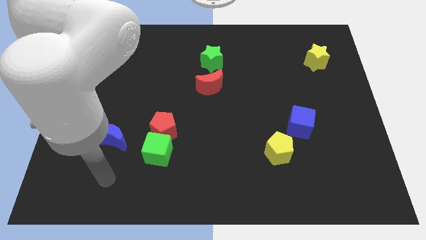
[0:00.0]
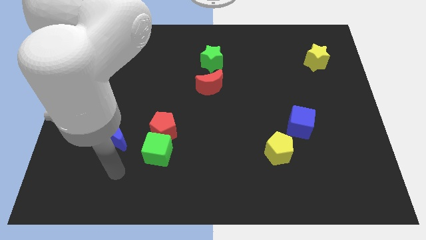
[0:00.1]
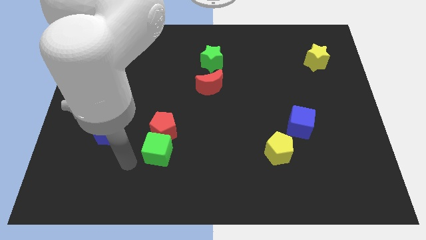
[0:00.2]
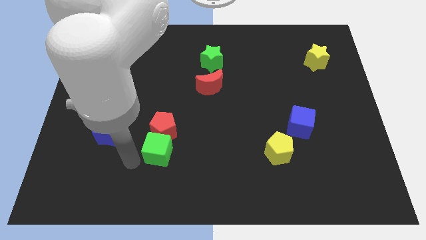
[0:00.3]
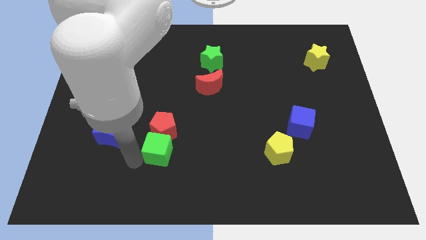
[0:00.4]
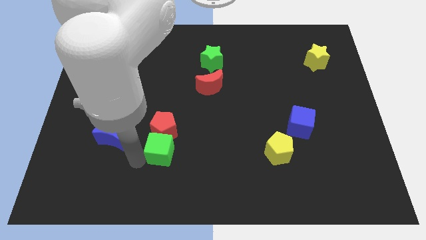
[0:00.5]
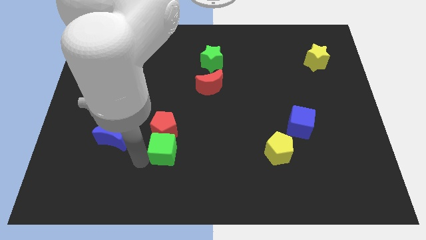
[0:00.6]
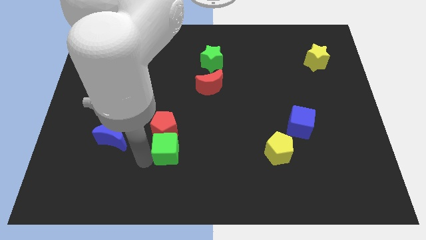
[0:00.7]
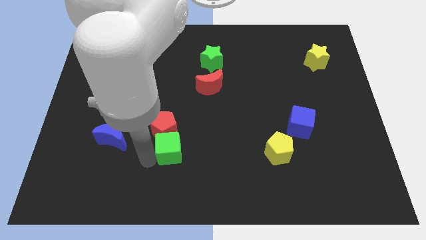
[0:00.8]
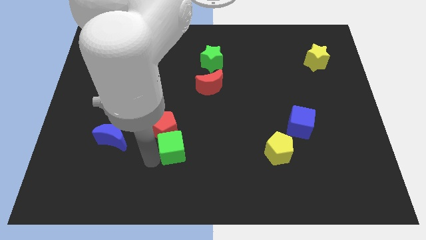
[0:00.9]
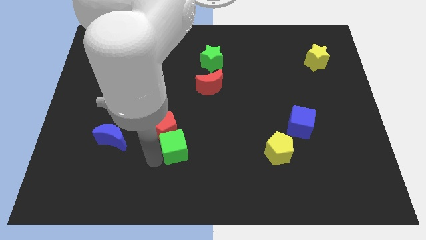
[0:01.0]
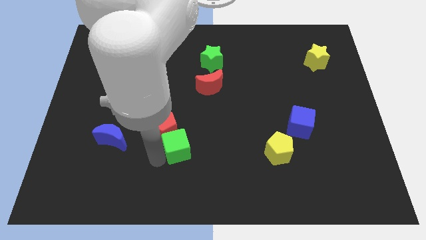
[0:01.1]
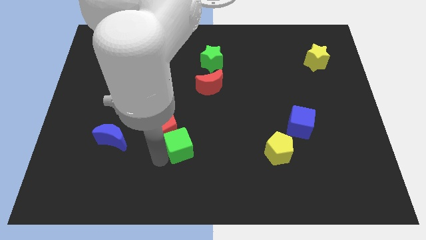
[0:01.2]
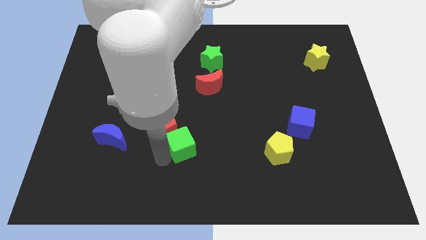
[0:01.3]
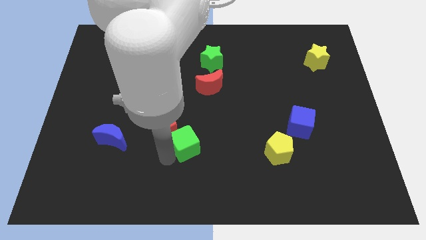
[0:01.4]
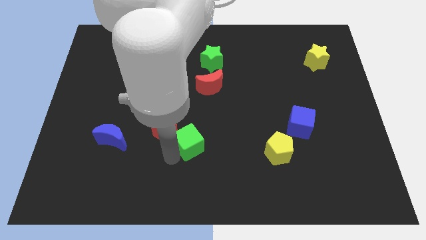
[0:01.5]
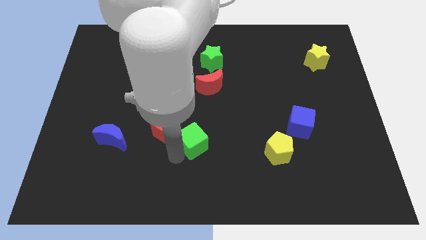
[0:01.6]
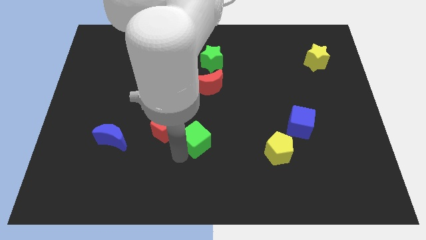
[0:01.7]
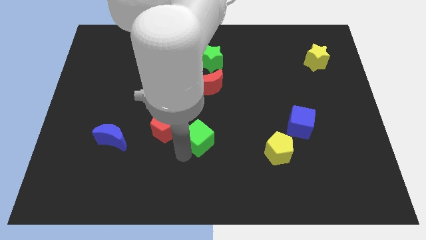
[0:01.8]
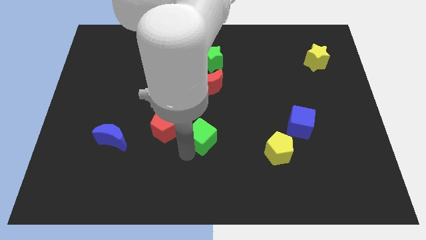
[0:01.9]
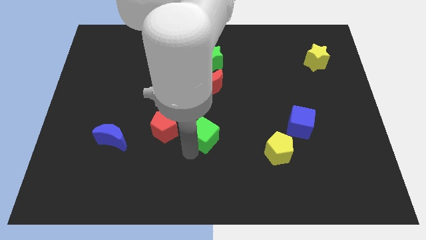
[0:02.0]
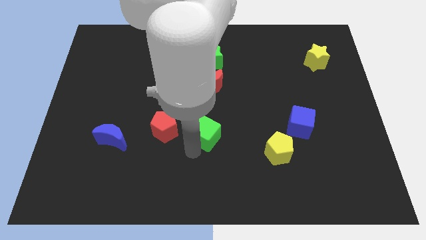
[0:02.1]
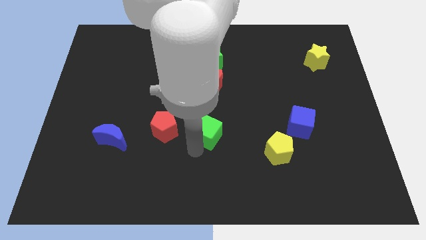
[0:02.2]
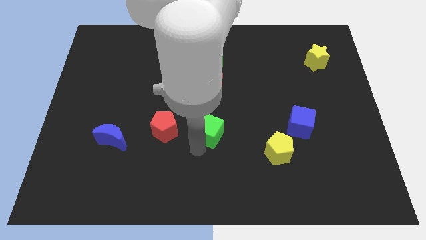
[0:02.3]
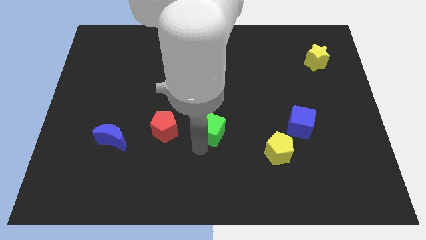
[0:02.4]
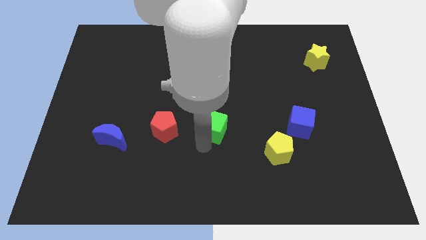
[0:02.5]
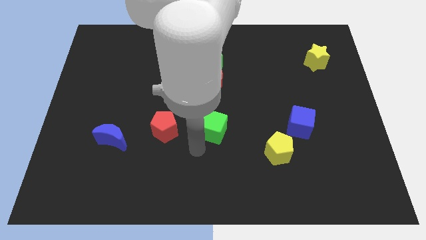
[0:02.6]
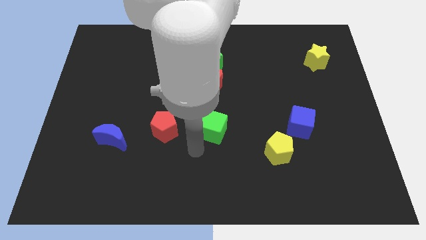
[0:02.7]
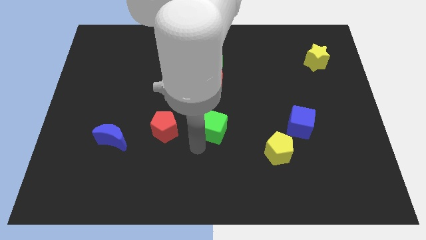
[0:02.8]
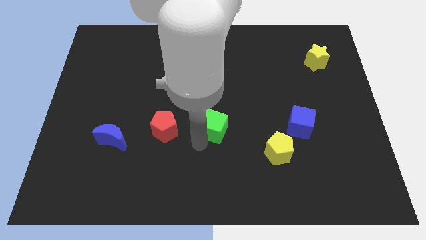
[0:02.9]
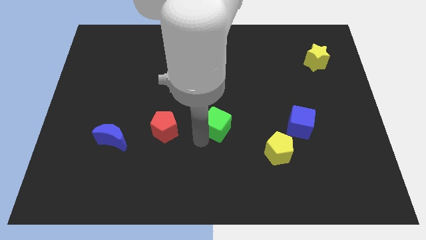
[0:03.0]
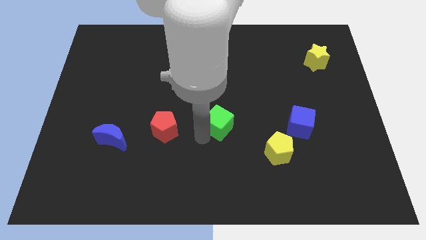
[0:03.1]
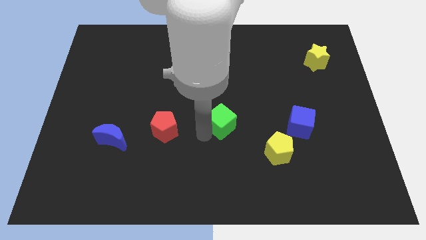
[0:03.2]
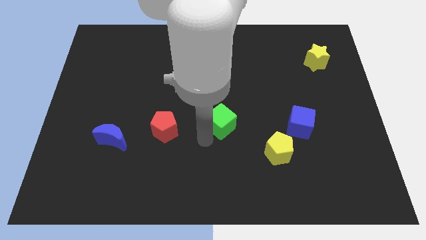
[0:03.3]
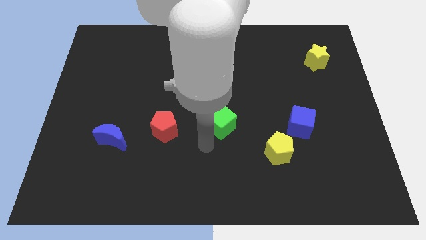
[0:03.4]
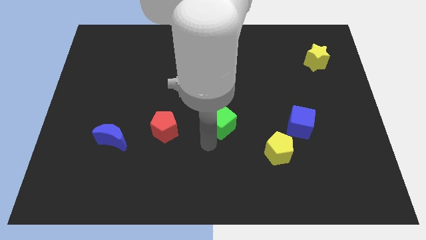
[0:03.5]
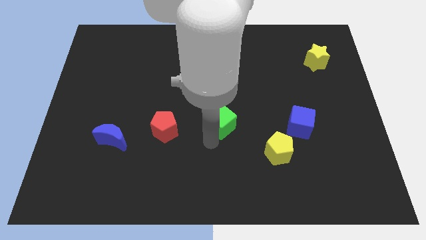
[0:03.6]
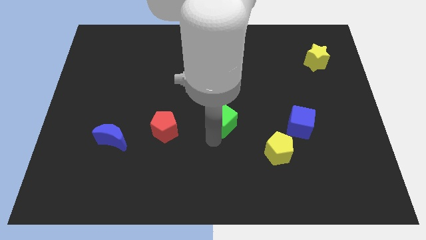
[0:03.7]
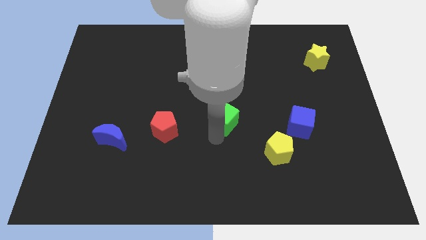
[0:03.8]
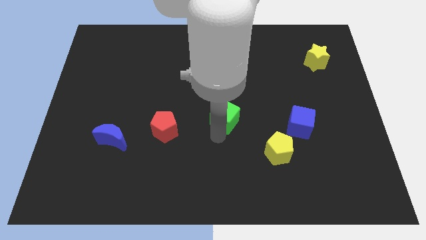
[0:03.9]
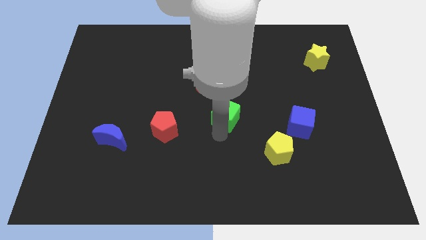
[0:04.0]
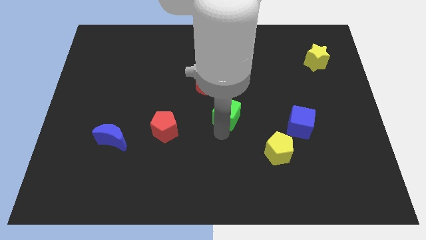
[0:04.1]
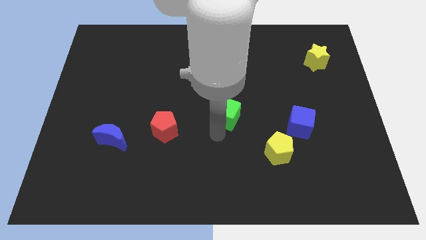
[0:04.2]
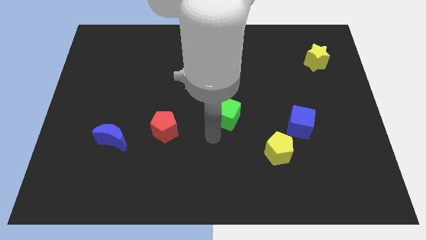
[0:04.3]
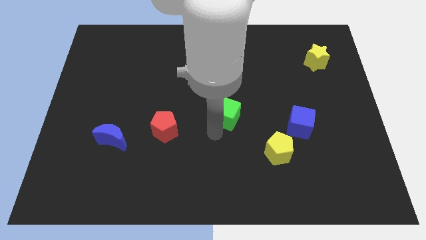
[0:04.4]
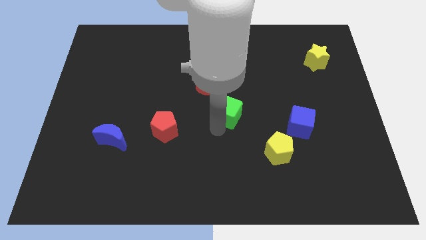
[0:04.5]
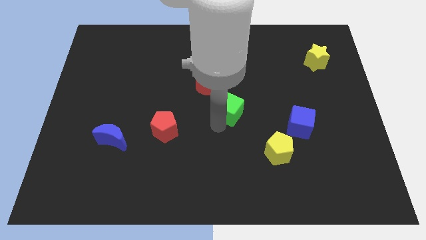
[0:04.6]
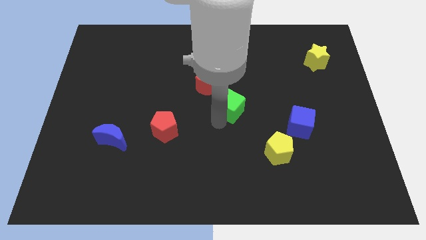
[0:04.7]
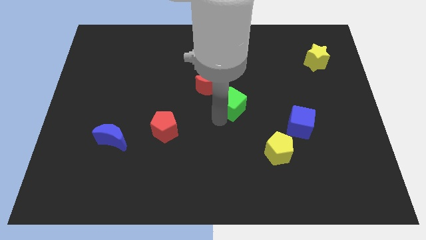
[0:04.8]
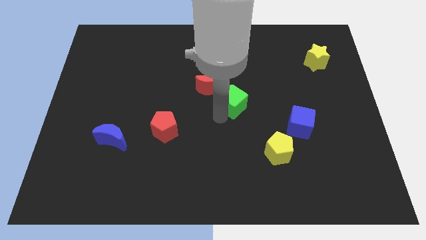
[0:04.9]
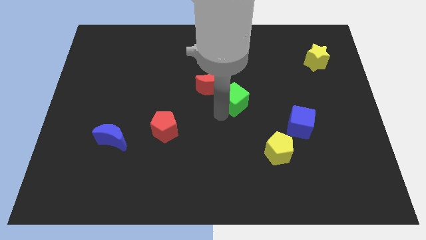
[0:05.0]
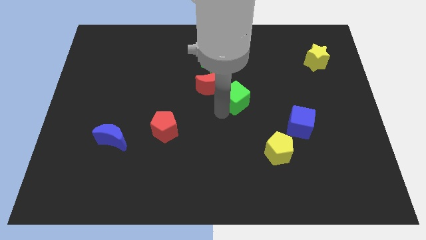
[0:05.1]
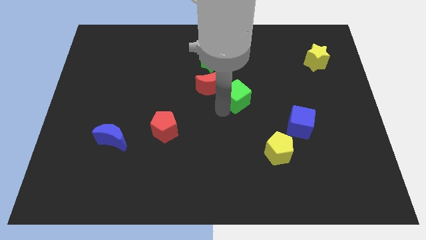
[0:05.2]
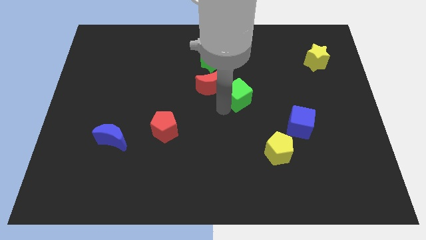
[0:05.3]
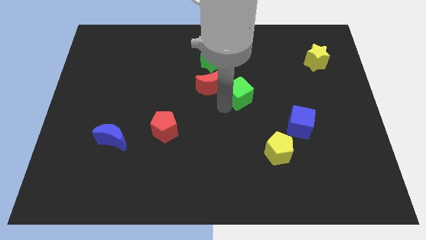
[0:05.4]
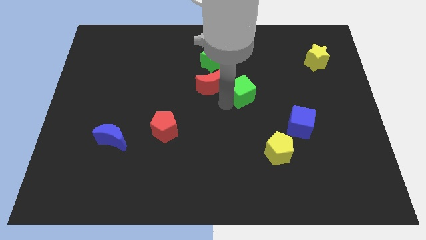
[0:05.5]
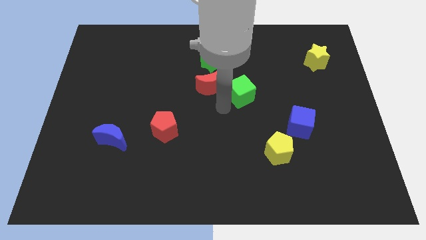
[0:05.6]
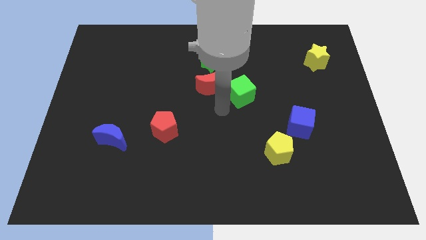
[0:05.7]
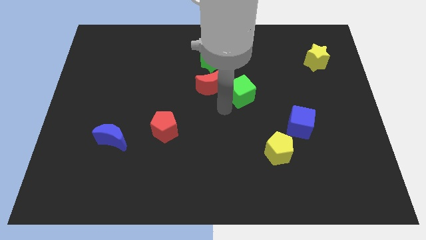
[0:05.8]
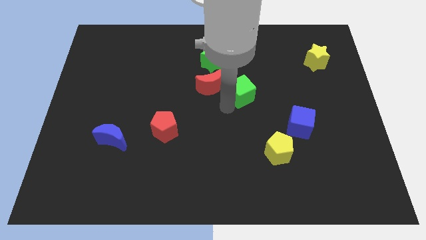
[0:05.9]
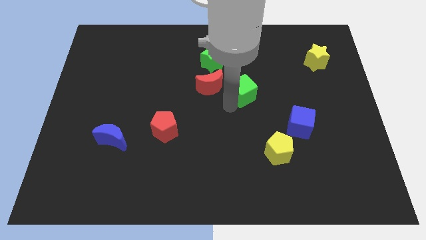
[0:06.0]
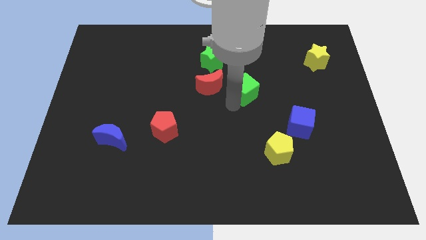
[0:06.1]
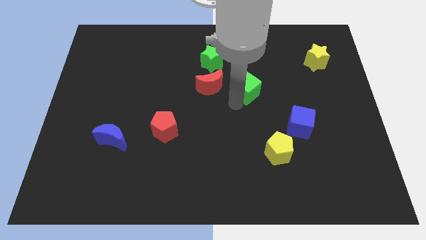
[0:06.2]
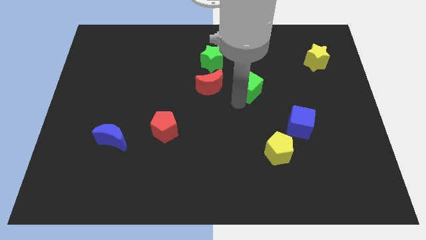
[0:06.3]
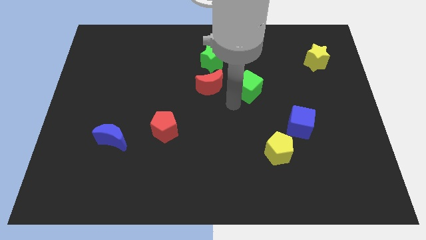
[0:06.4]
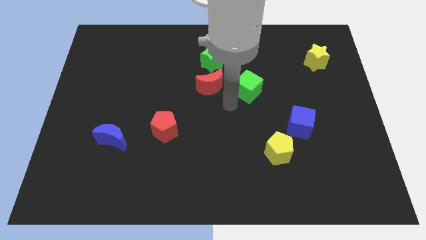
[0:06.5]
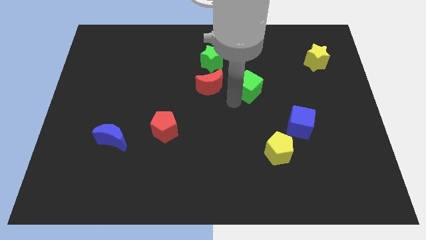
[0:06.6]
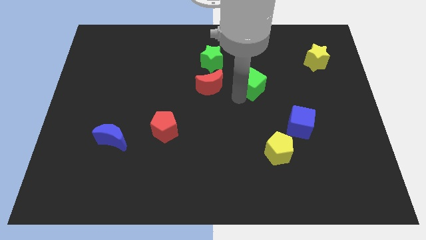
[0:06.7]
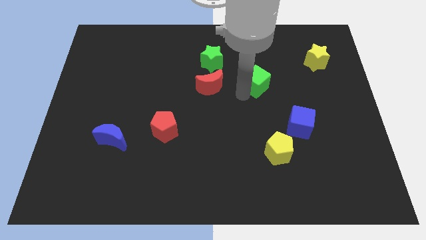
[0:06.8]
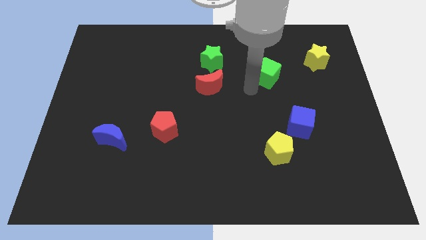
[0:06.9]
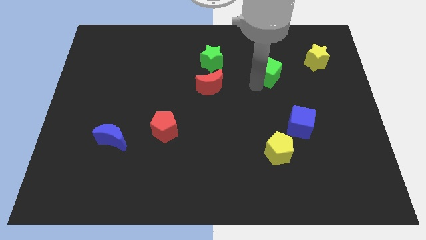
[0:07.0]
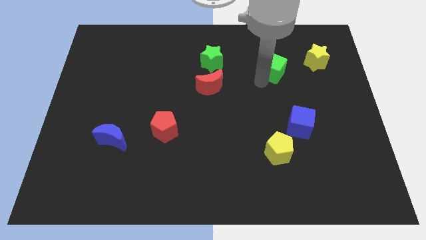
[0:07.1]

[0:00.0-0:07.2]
push the green cube to the left of the yellow star

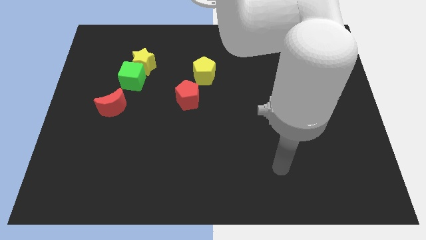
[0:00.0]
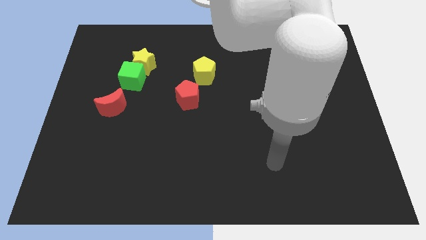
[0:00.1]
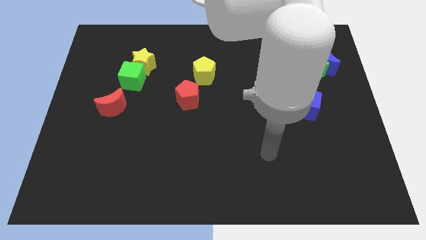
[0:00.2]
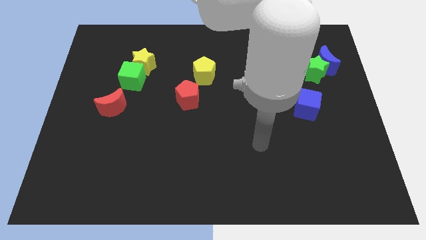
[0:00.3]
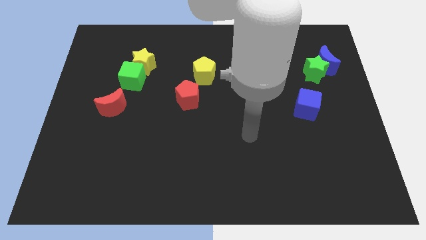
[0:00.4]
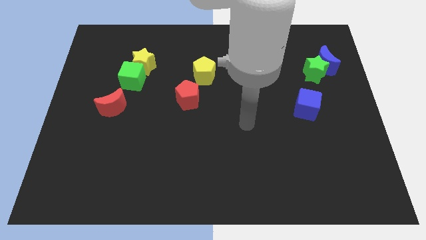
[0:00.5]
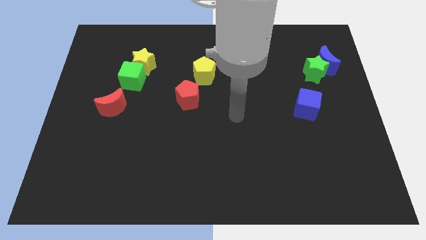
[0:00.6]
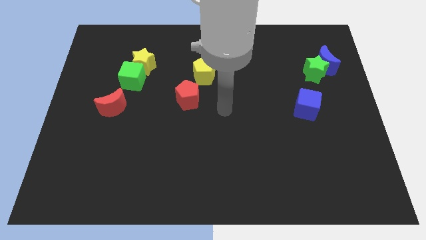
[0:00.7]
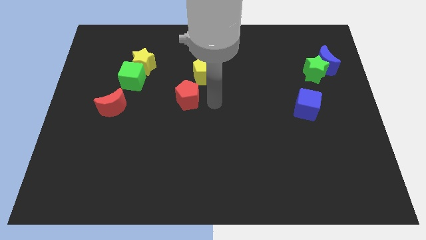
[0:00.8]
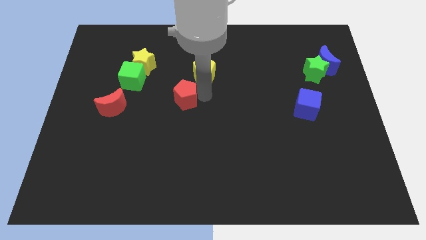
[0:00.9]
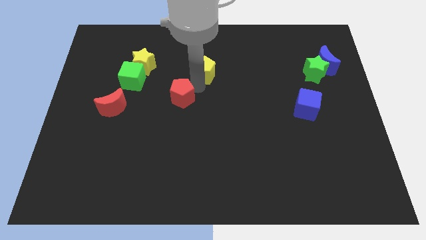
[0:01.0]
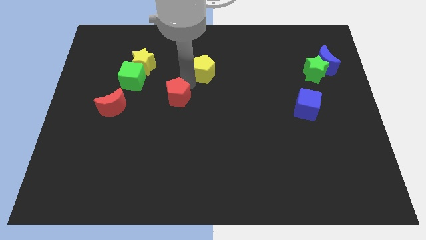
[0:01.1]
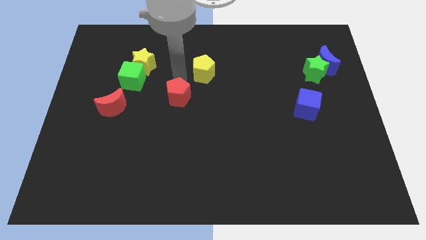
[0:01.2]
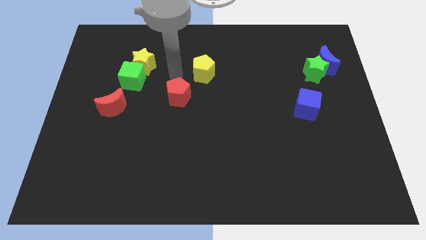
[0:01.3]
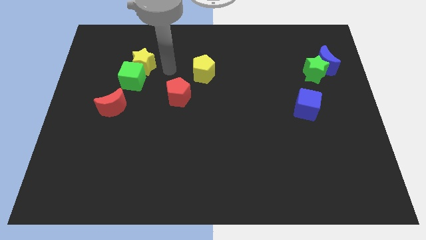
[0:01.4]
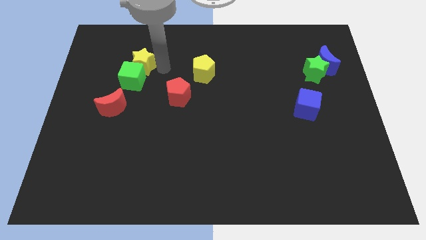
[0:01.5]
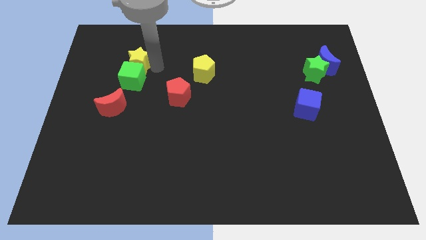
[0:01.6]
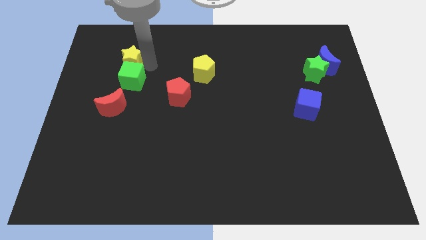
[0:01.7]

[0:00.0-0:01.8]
push the yellow star to the top of the red moon
